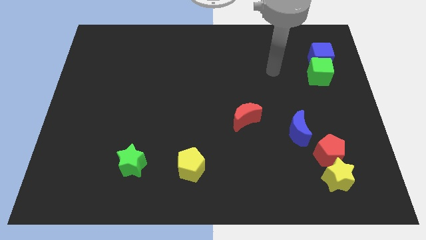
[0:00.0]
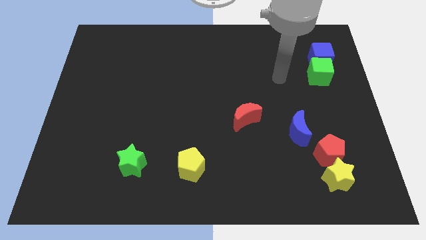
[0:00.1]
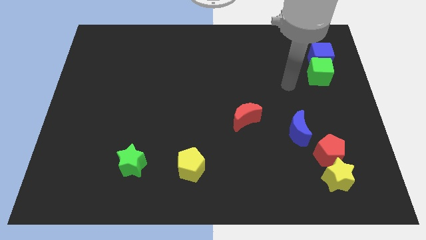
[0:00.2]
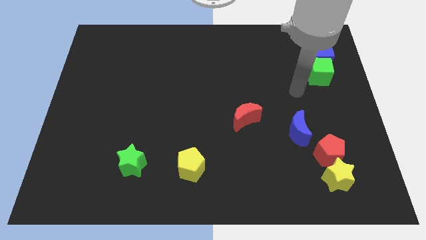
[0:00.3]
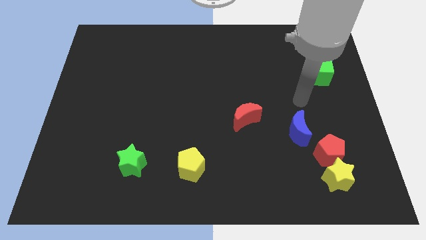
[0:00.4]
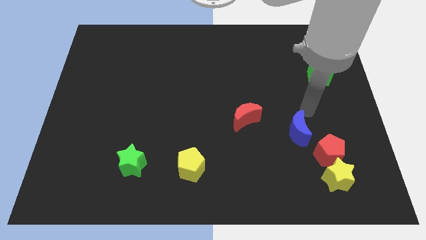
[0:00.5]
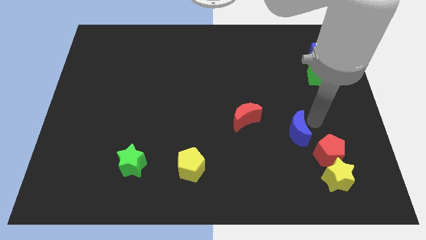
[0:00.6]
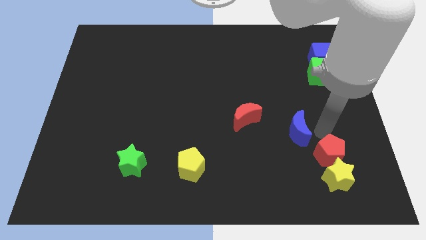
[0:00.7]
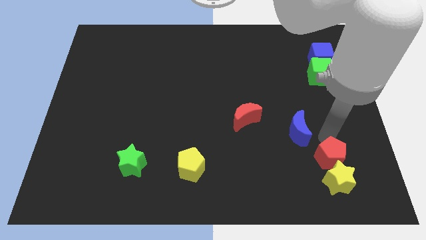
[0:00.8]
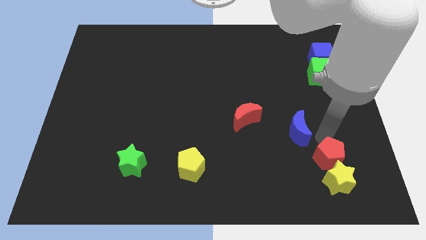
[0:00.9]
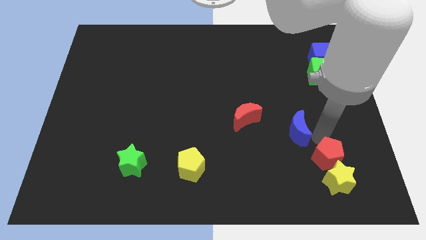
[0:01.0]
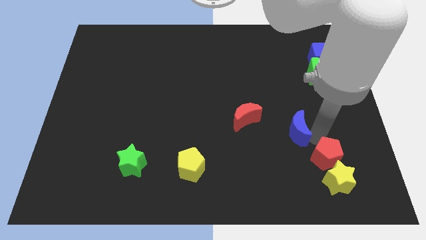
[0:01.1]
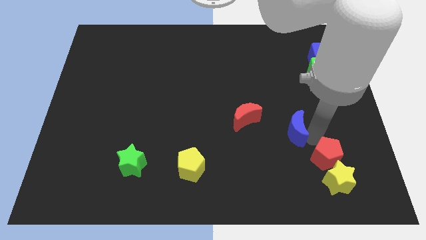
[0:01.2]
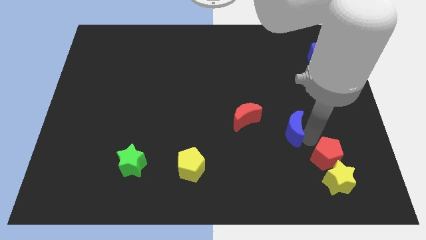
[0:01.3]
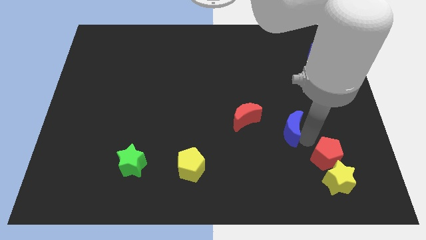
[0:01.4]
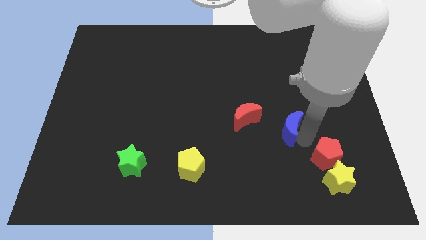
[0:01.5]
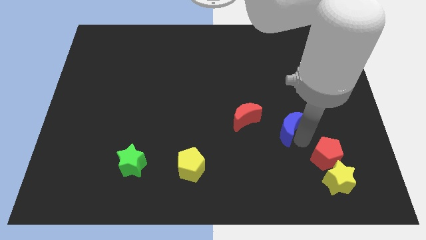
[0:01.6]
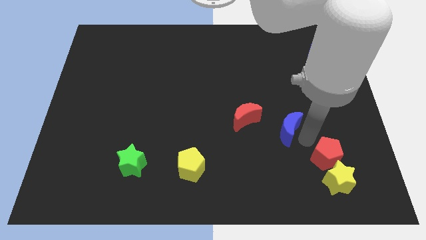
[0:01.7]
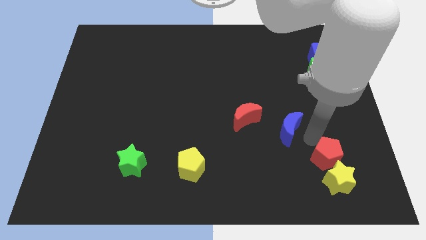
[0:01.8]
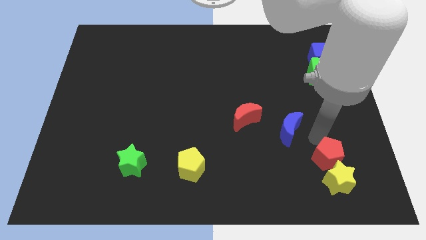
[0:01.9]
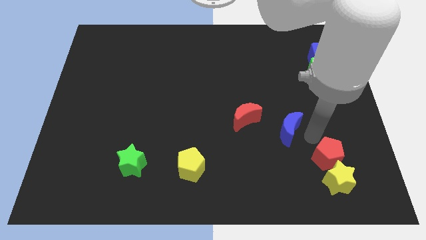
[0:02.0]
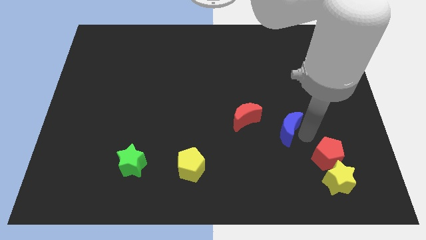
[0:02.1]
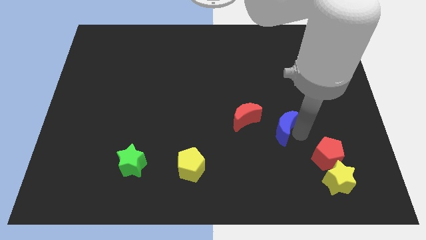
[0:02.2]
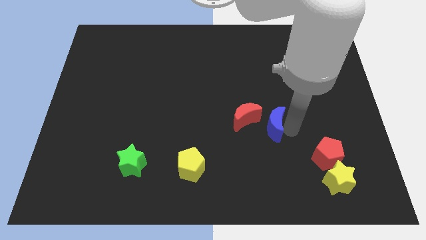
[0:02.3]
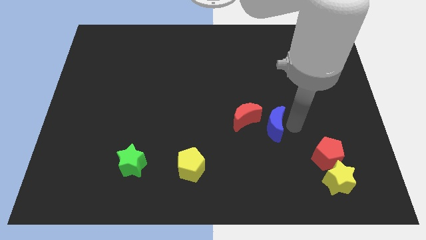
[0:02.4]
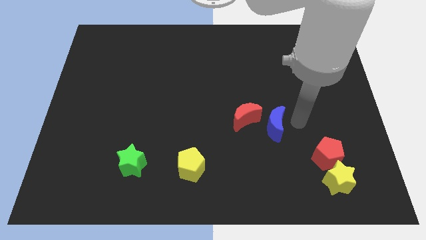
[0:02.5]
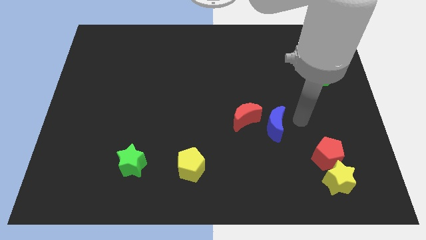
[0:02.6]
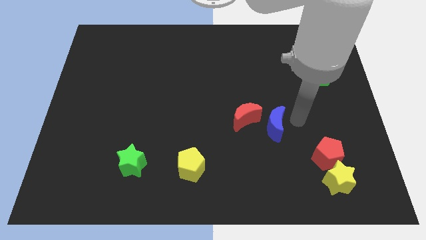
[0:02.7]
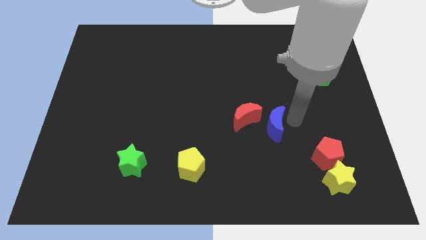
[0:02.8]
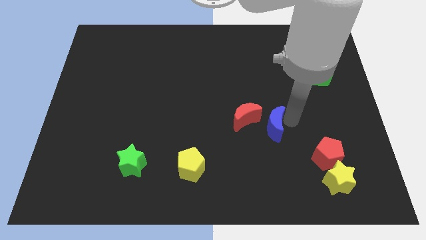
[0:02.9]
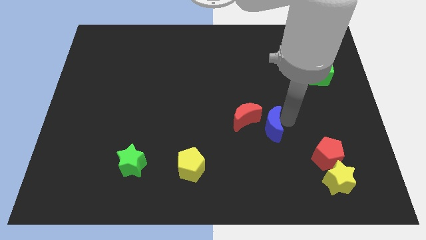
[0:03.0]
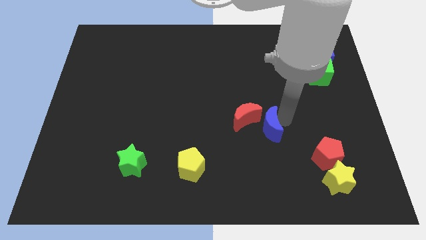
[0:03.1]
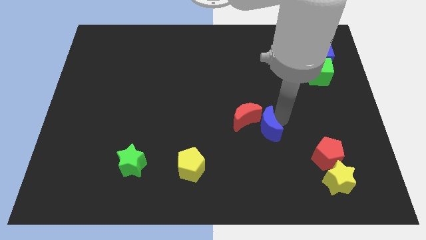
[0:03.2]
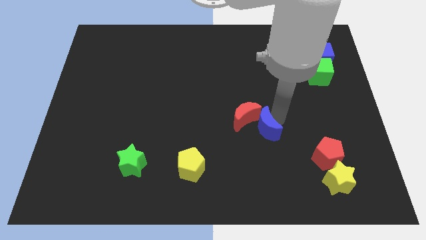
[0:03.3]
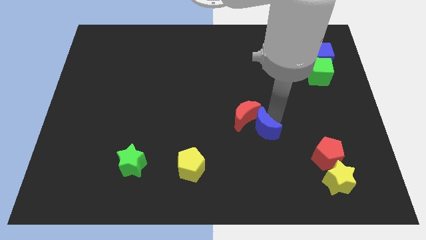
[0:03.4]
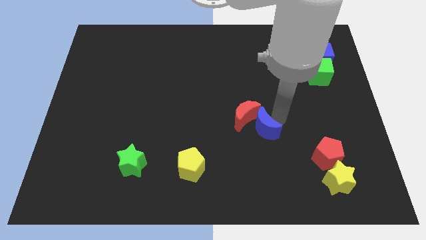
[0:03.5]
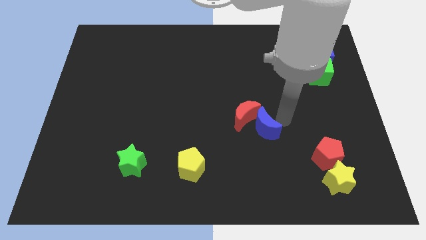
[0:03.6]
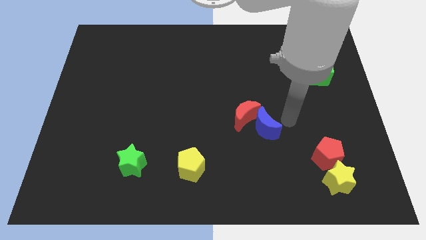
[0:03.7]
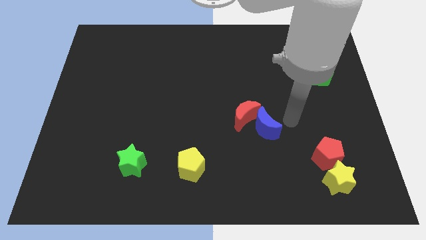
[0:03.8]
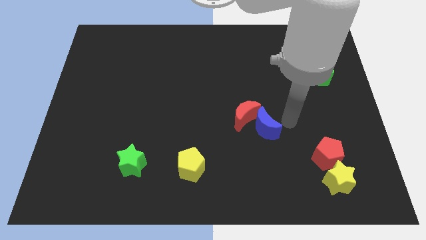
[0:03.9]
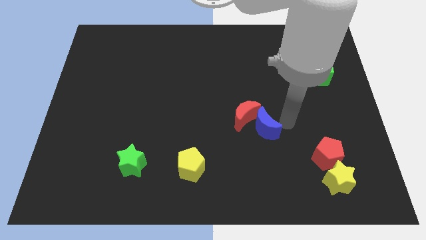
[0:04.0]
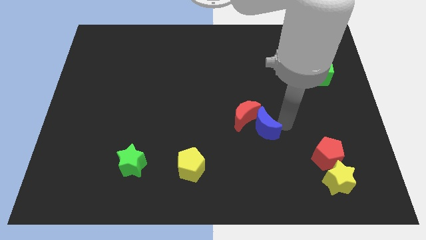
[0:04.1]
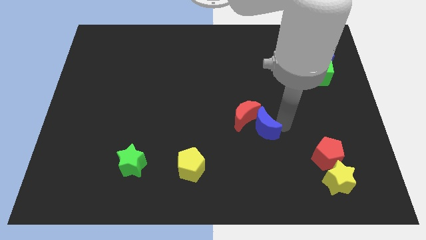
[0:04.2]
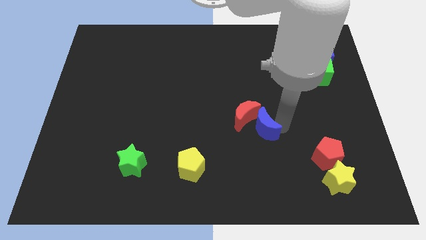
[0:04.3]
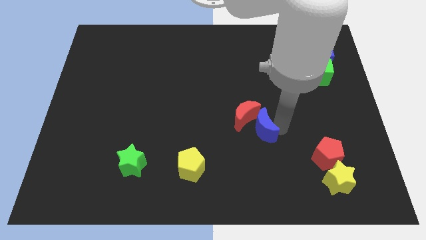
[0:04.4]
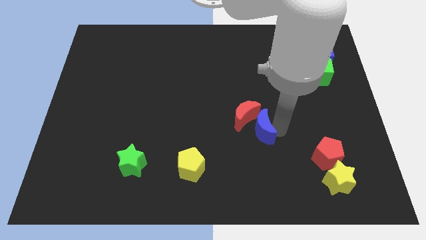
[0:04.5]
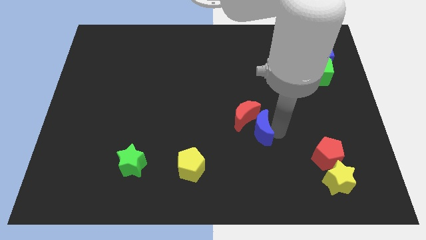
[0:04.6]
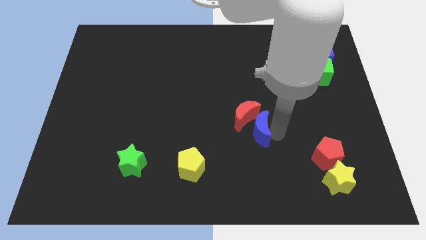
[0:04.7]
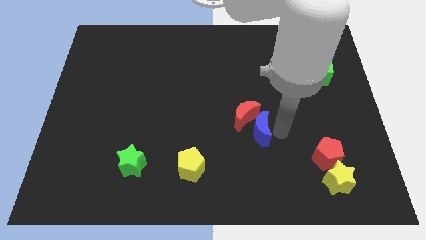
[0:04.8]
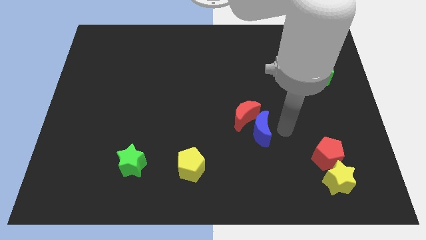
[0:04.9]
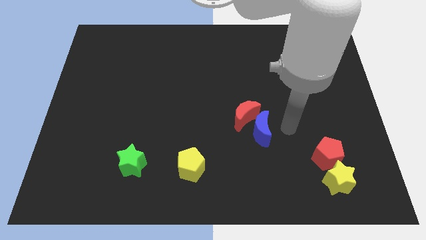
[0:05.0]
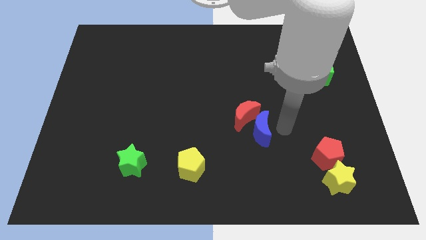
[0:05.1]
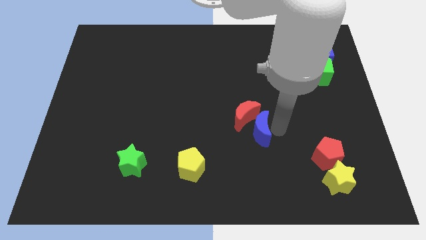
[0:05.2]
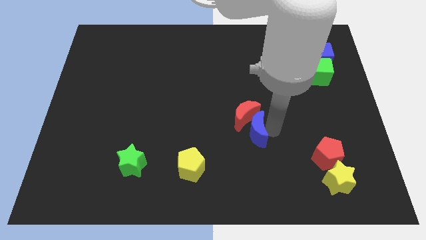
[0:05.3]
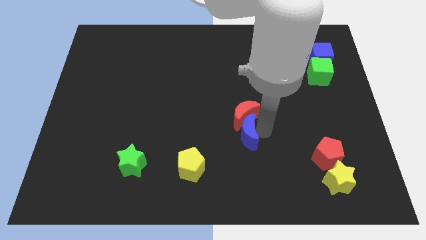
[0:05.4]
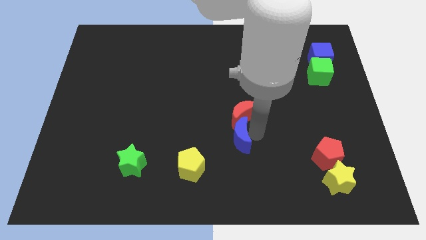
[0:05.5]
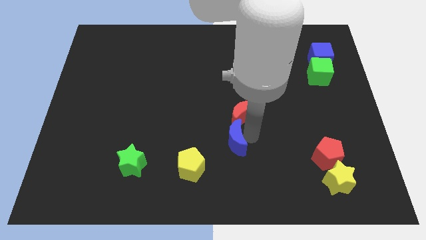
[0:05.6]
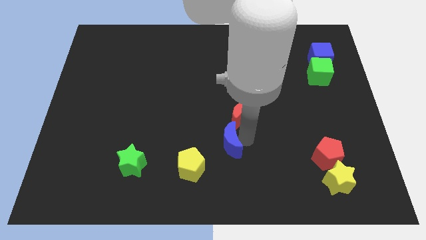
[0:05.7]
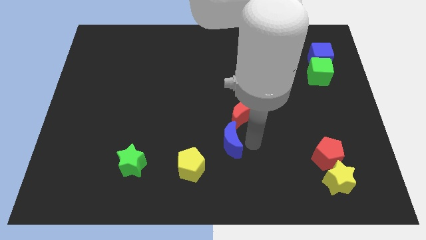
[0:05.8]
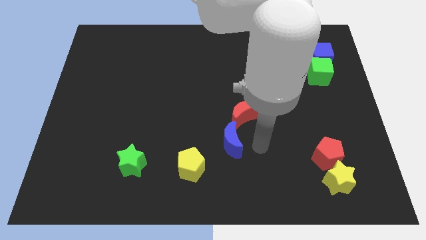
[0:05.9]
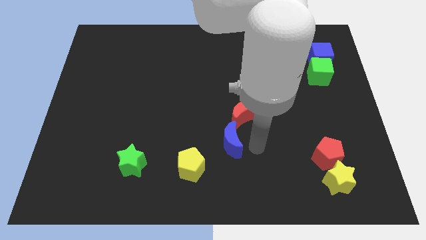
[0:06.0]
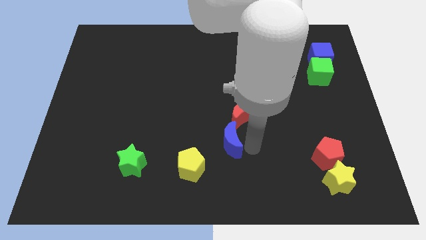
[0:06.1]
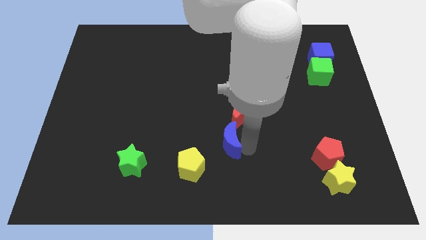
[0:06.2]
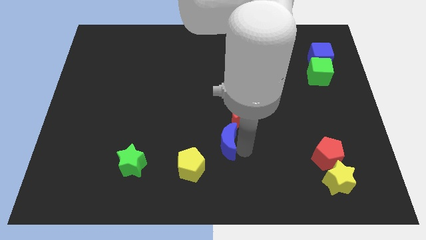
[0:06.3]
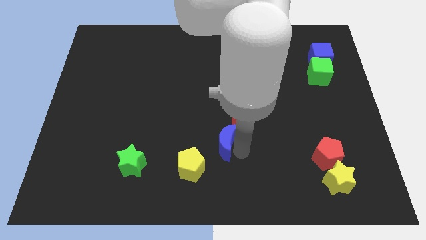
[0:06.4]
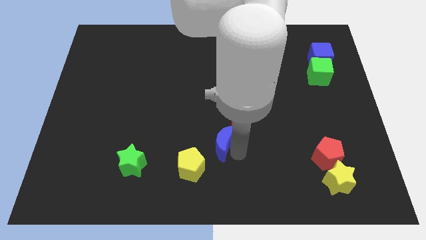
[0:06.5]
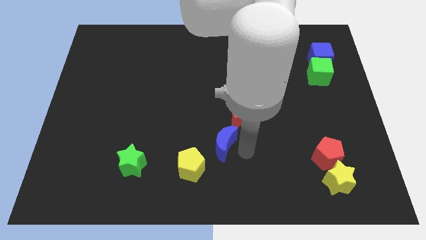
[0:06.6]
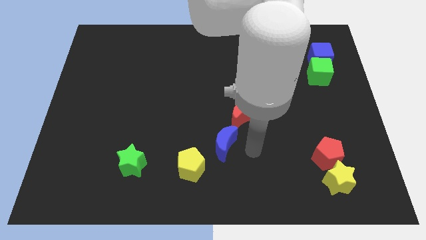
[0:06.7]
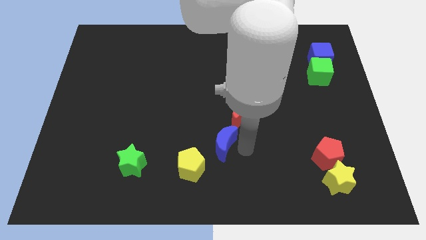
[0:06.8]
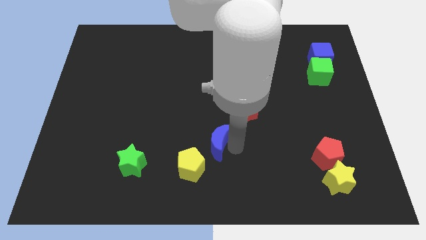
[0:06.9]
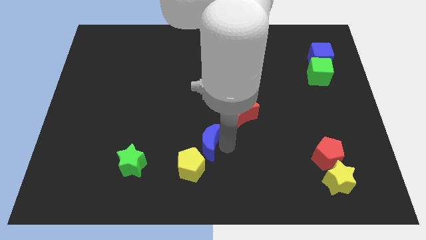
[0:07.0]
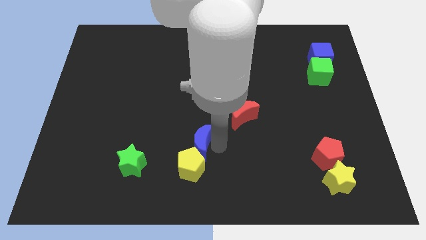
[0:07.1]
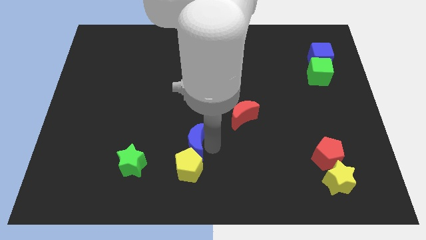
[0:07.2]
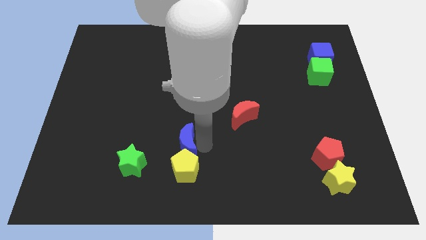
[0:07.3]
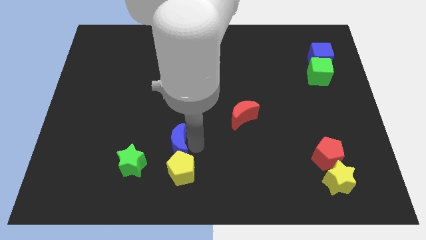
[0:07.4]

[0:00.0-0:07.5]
move the blue moon diagonally up and to the right of the green star
